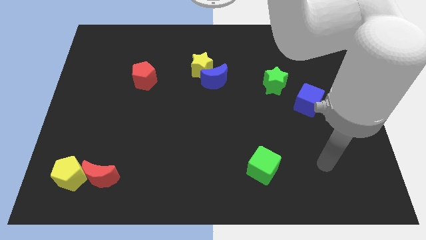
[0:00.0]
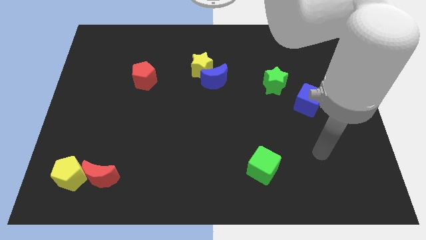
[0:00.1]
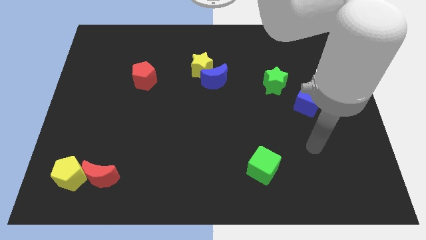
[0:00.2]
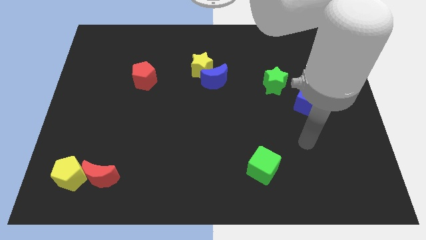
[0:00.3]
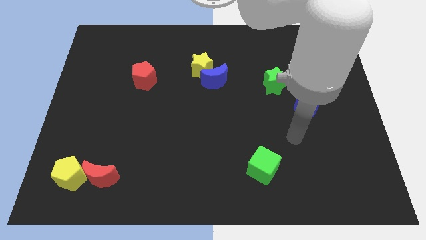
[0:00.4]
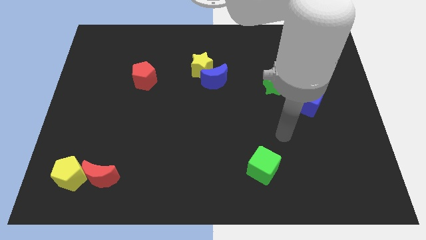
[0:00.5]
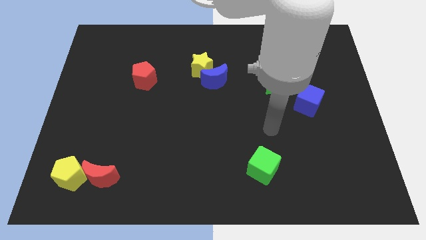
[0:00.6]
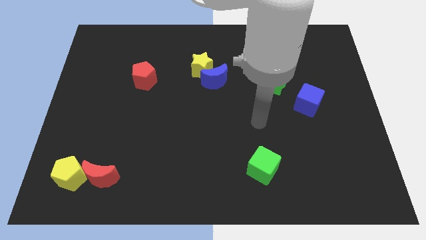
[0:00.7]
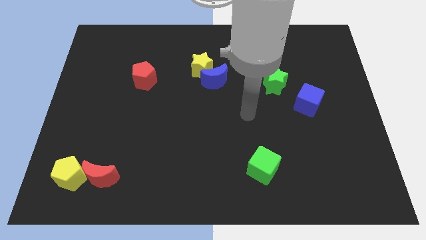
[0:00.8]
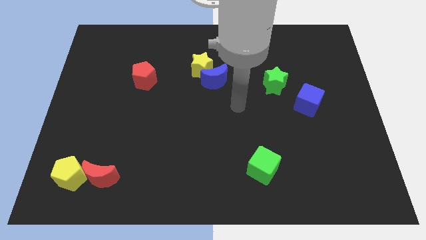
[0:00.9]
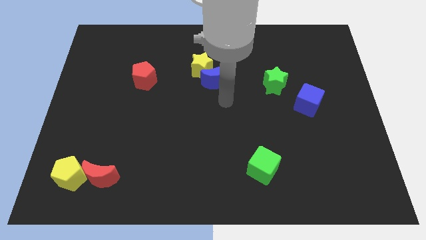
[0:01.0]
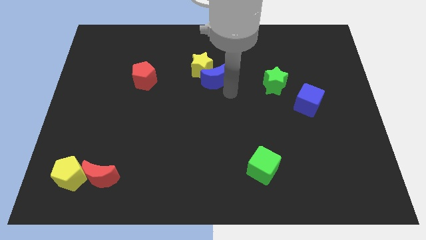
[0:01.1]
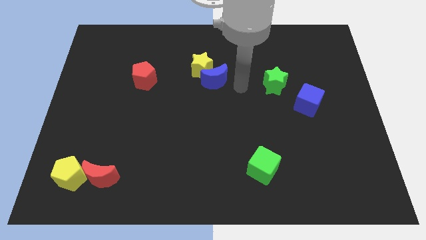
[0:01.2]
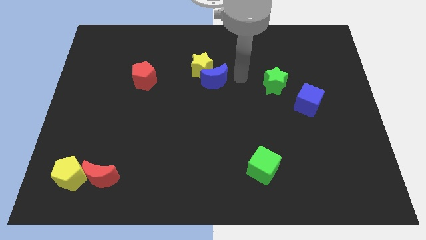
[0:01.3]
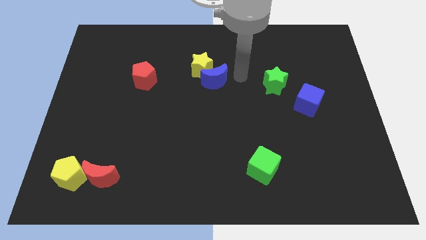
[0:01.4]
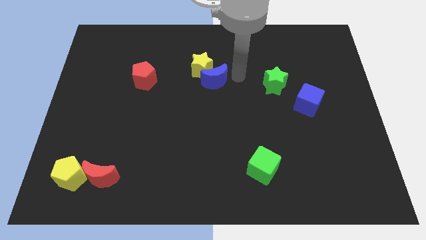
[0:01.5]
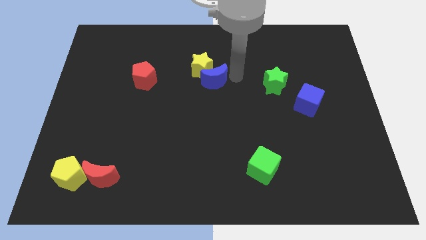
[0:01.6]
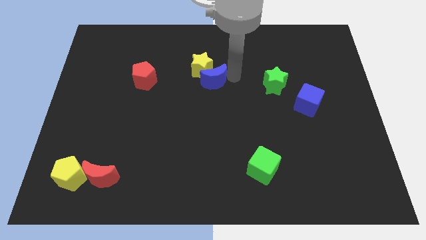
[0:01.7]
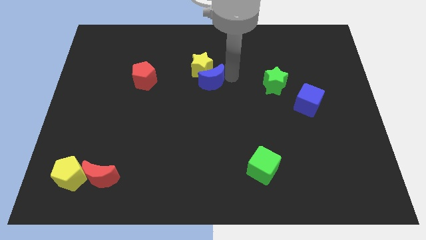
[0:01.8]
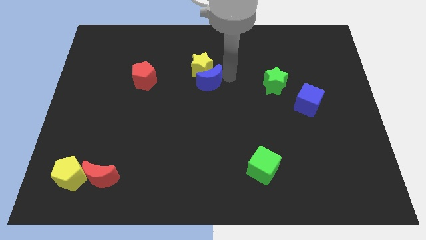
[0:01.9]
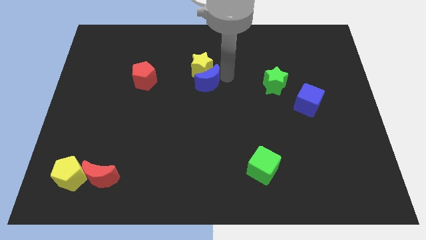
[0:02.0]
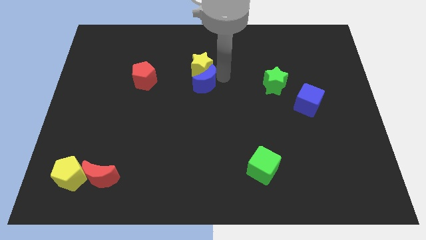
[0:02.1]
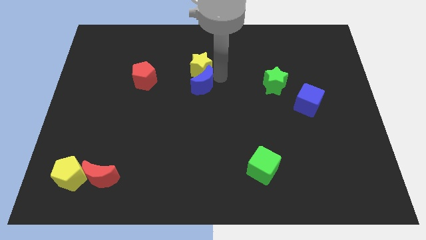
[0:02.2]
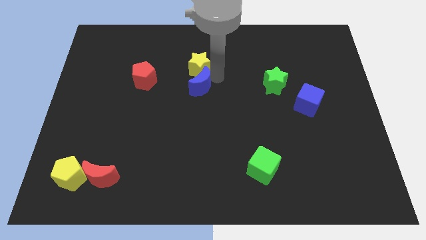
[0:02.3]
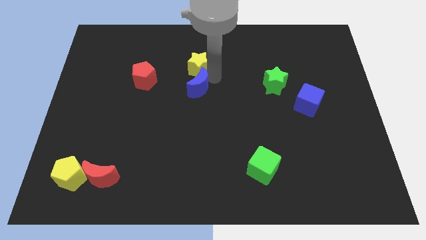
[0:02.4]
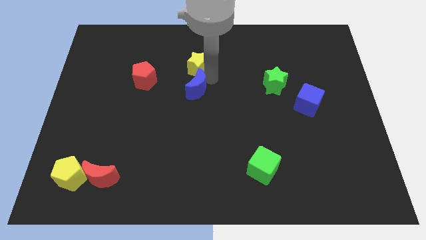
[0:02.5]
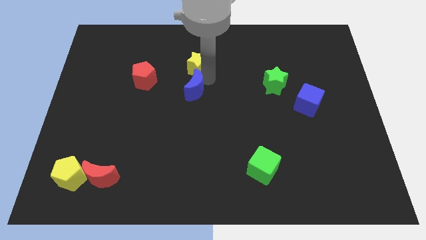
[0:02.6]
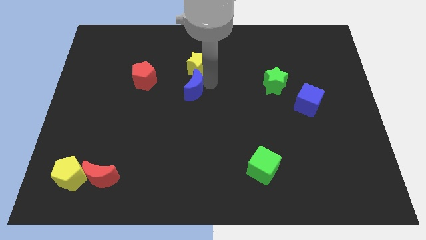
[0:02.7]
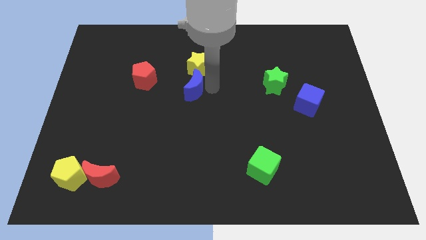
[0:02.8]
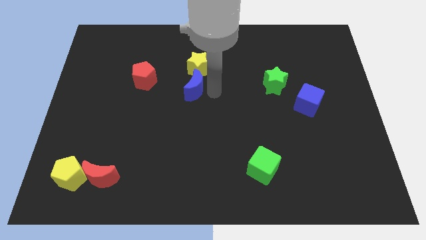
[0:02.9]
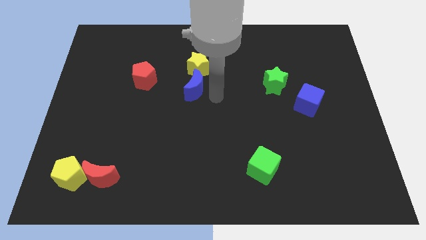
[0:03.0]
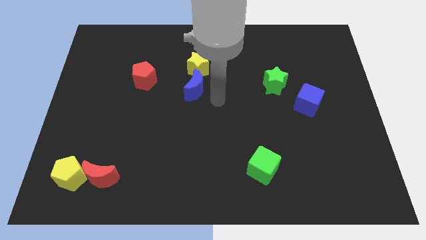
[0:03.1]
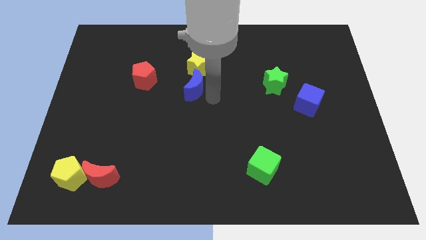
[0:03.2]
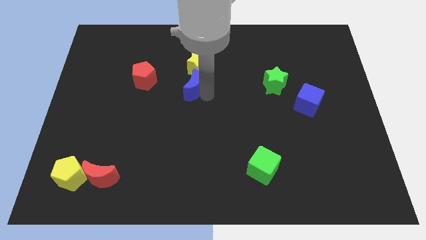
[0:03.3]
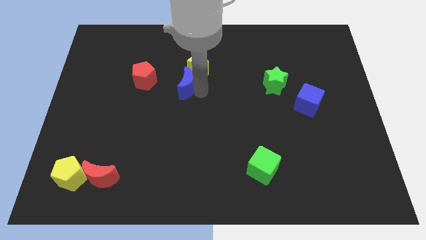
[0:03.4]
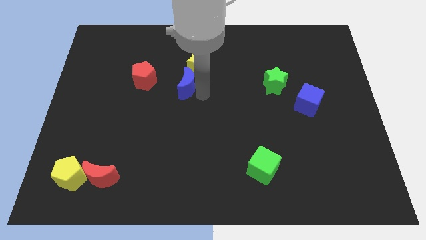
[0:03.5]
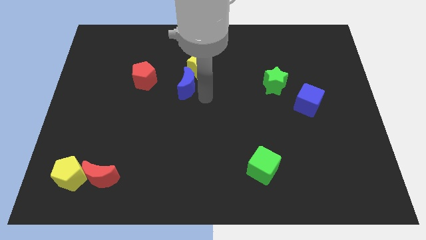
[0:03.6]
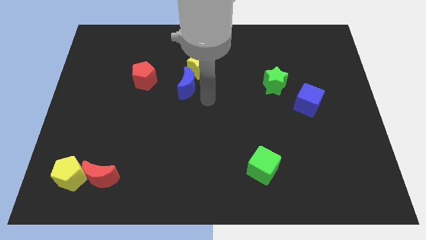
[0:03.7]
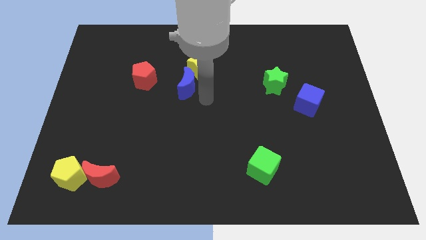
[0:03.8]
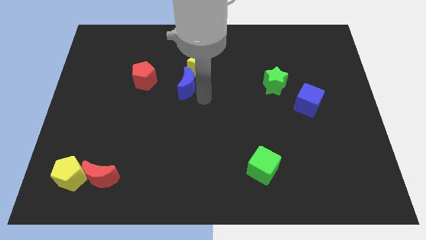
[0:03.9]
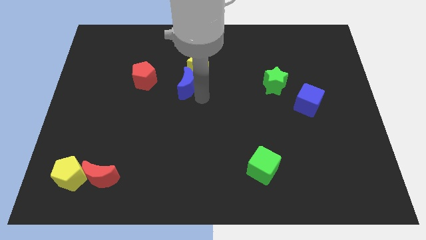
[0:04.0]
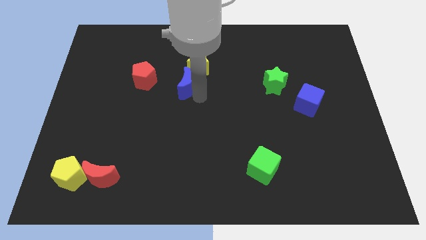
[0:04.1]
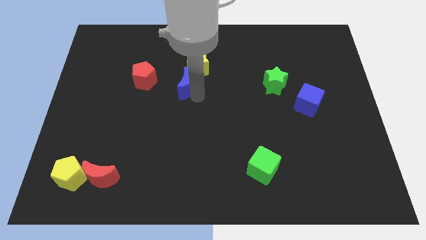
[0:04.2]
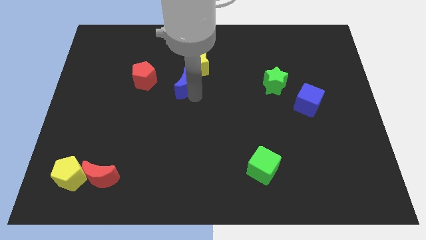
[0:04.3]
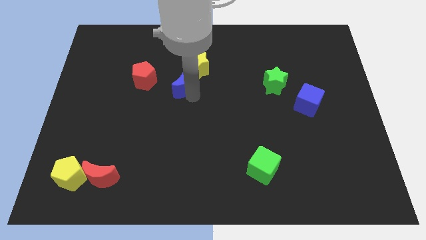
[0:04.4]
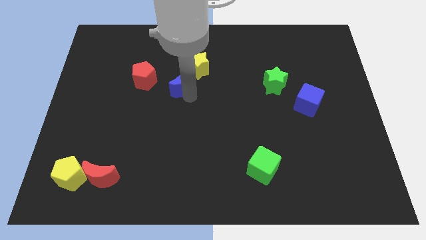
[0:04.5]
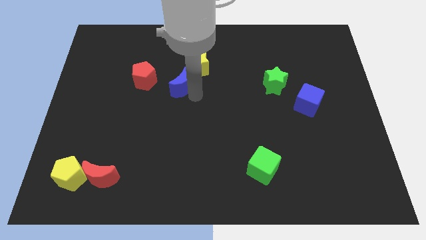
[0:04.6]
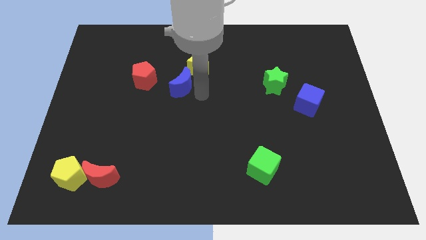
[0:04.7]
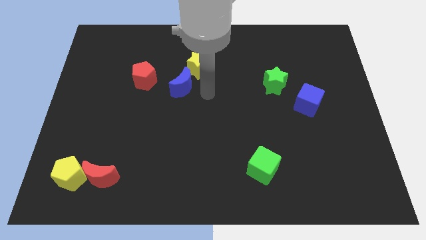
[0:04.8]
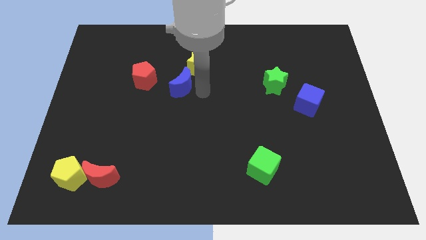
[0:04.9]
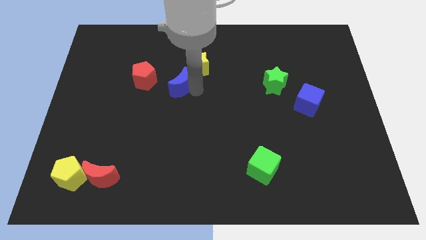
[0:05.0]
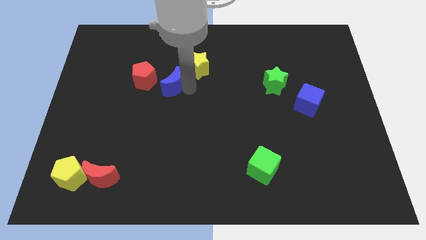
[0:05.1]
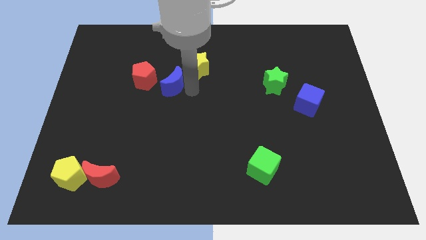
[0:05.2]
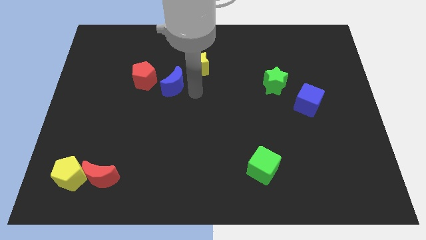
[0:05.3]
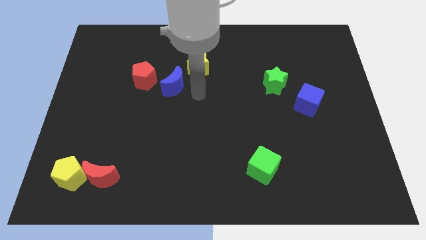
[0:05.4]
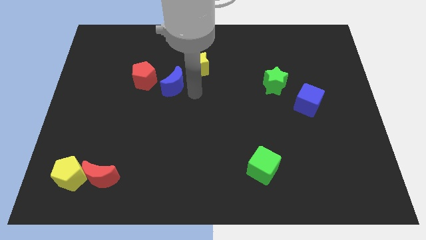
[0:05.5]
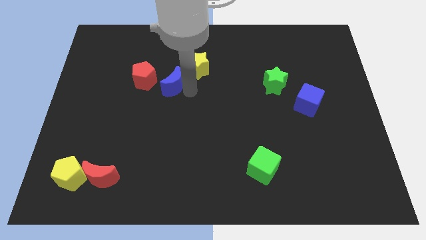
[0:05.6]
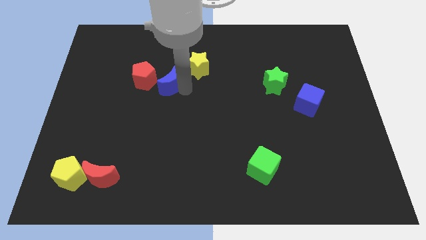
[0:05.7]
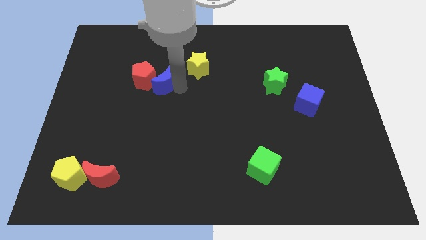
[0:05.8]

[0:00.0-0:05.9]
slide the blue moon next to the red pentagon

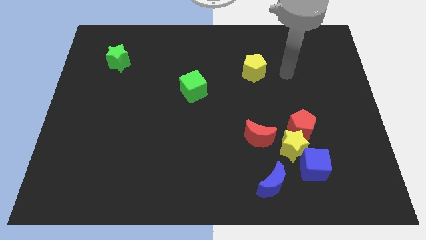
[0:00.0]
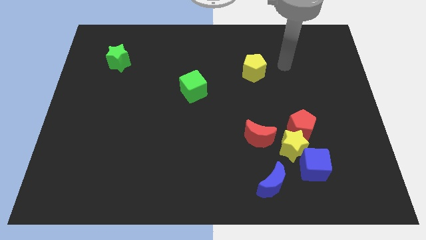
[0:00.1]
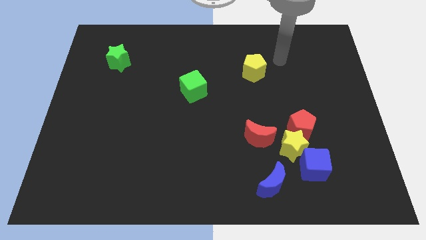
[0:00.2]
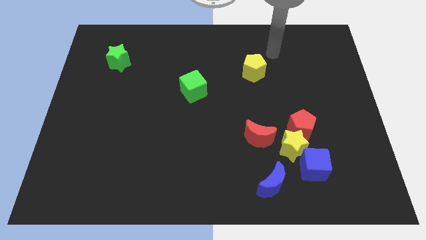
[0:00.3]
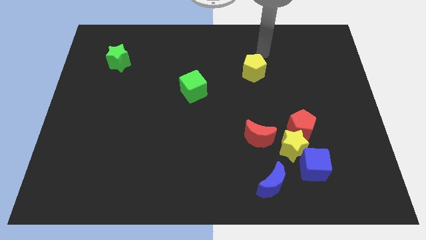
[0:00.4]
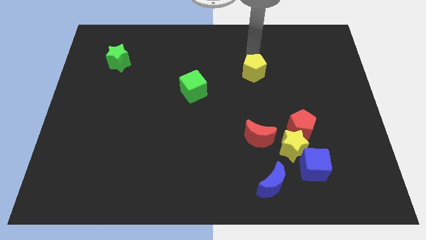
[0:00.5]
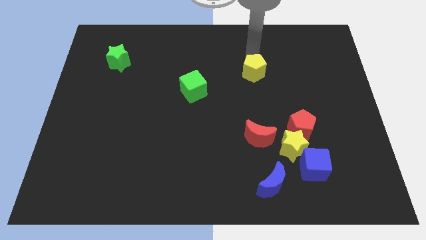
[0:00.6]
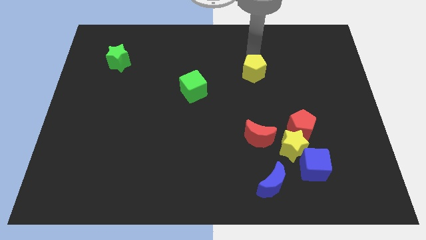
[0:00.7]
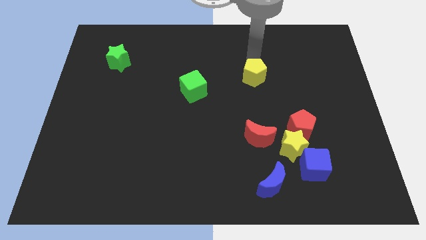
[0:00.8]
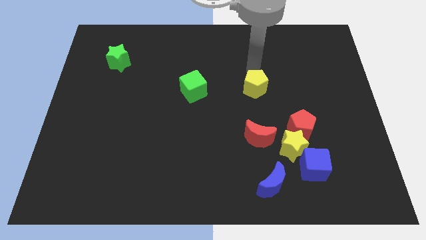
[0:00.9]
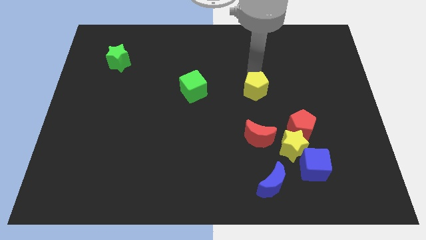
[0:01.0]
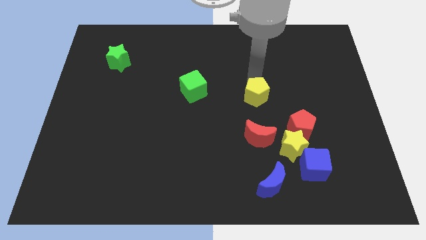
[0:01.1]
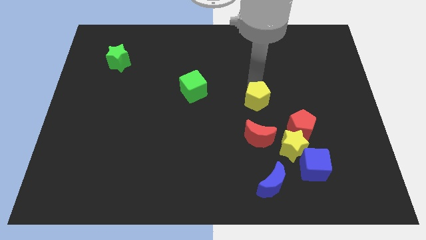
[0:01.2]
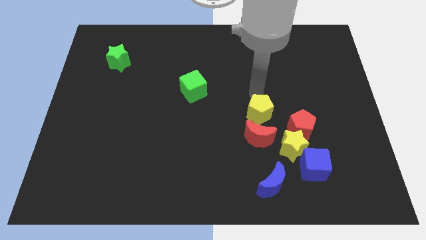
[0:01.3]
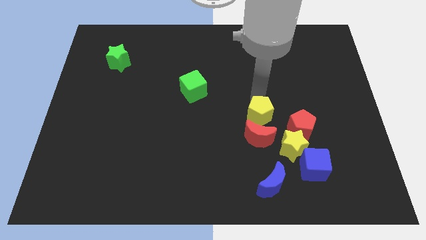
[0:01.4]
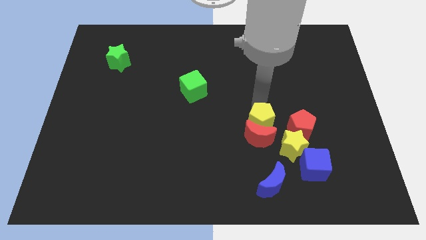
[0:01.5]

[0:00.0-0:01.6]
push the yellow pentagon close to the red moon
